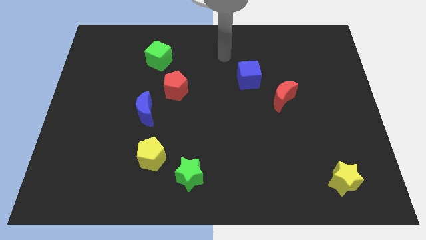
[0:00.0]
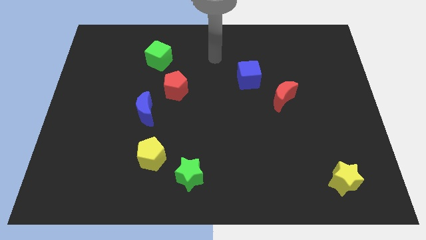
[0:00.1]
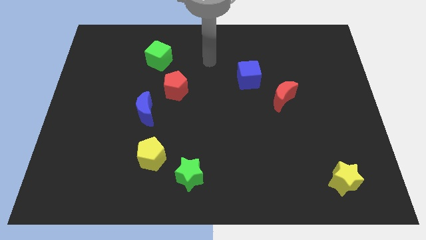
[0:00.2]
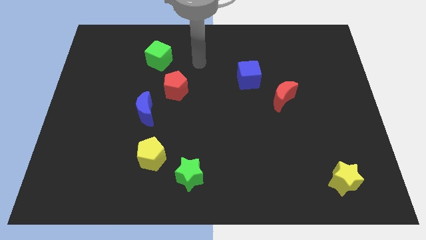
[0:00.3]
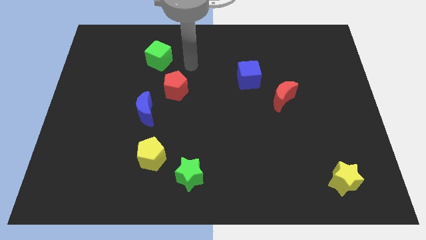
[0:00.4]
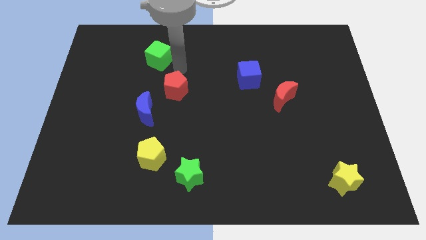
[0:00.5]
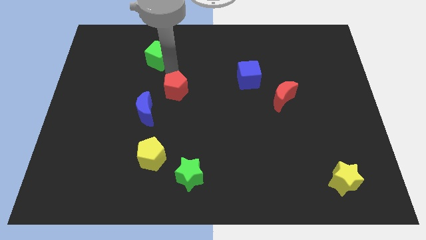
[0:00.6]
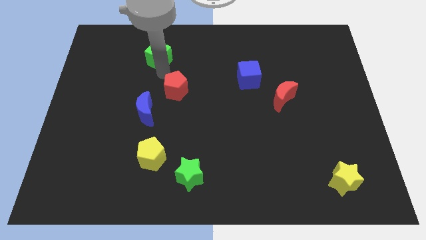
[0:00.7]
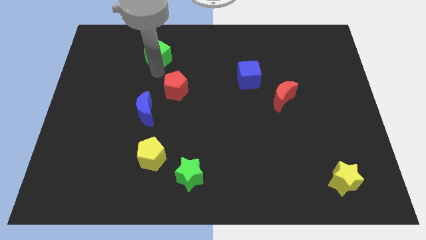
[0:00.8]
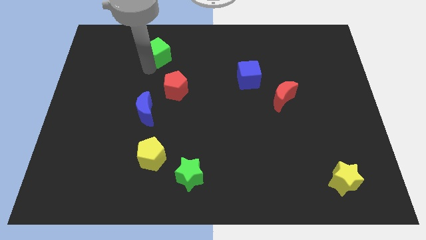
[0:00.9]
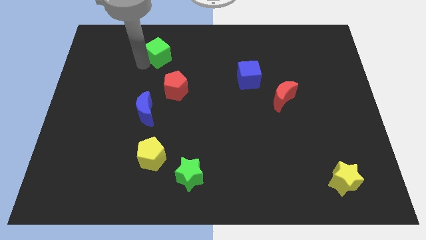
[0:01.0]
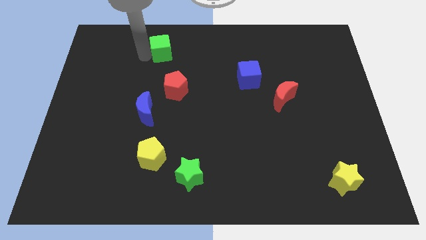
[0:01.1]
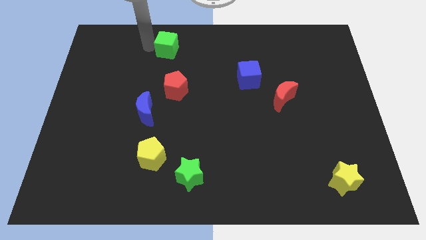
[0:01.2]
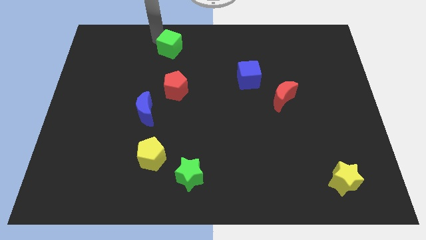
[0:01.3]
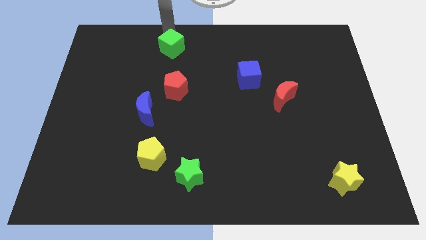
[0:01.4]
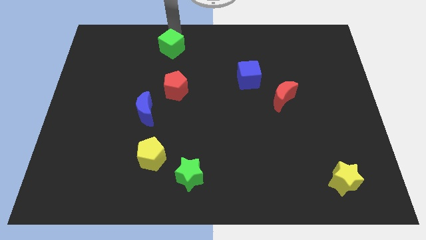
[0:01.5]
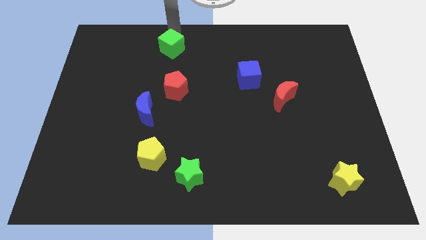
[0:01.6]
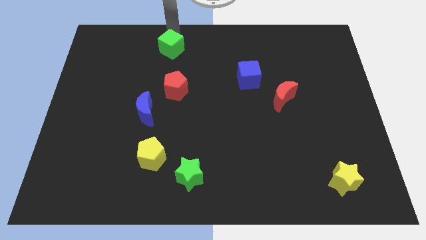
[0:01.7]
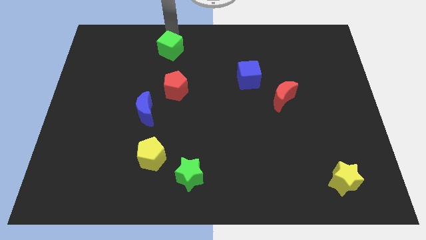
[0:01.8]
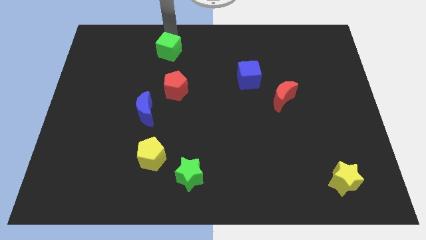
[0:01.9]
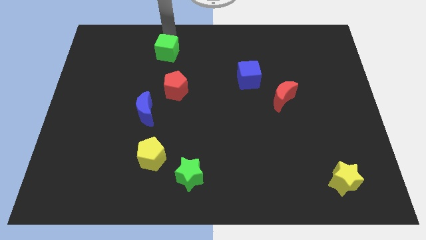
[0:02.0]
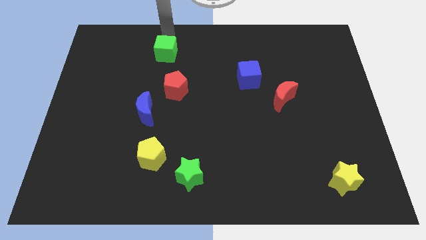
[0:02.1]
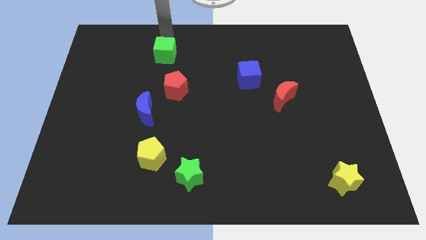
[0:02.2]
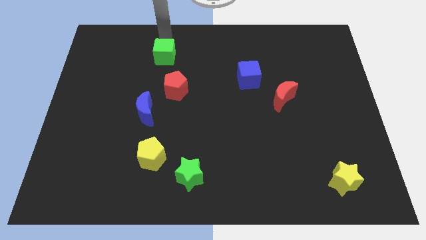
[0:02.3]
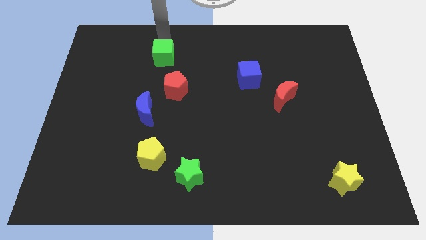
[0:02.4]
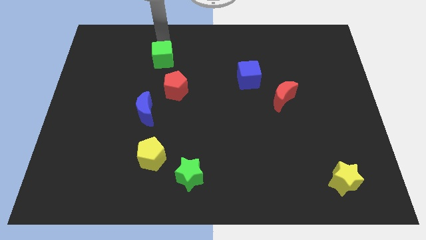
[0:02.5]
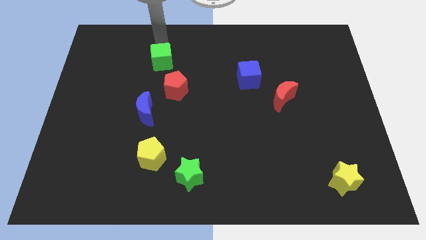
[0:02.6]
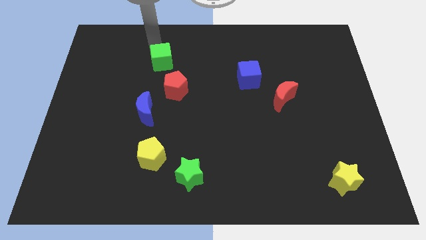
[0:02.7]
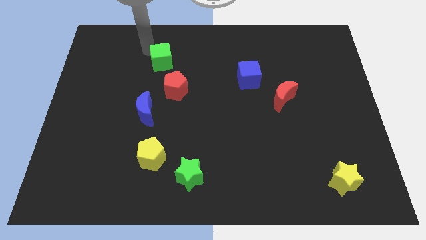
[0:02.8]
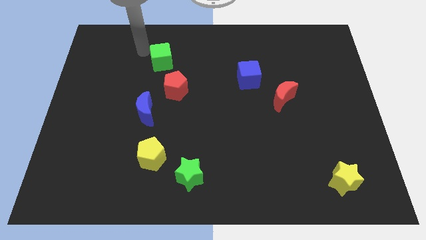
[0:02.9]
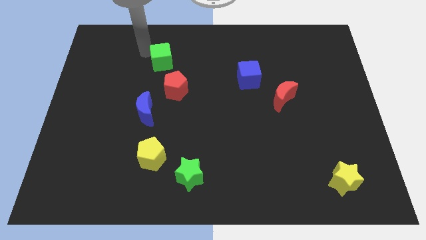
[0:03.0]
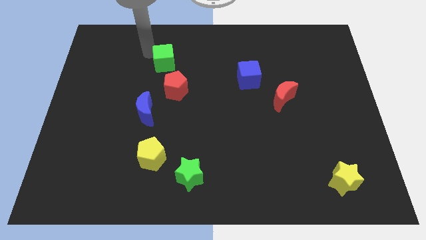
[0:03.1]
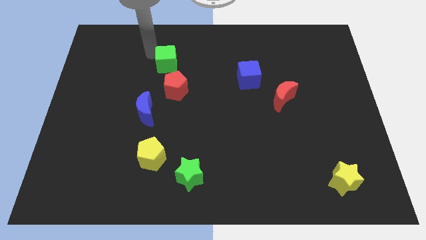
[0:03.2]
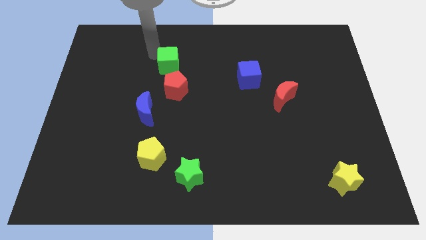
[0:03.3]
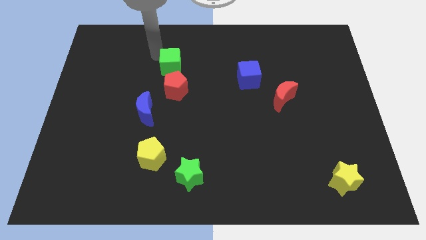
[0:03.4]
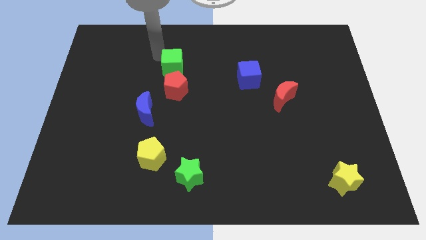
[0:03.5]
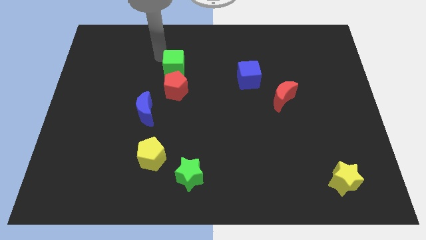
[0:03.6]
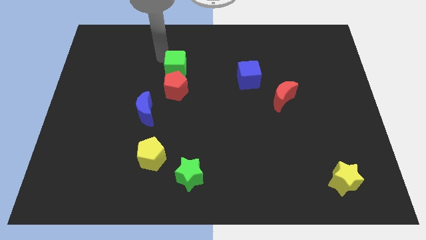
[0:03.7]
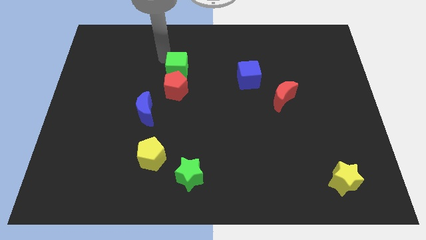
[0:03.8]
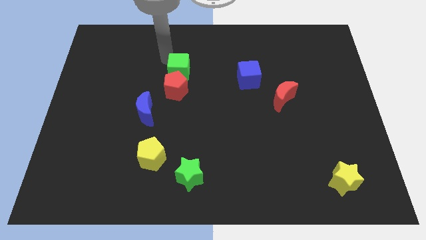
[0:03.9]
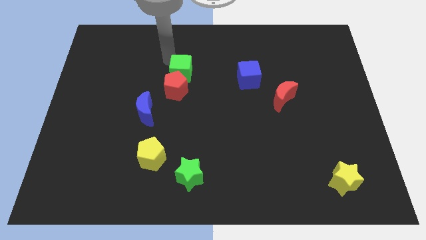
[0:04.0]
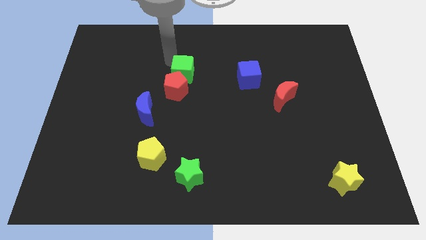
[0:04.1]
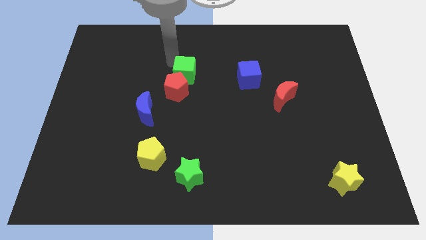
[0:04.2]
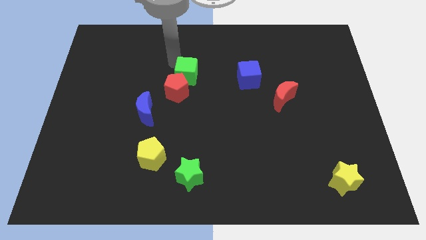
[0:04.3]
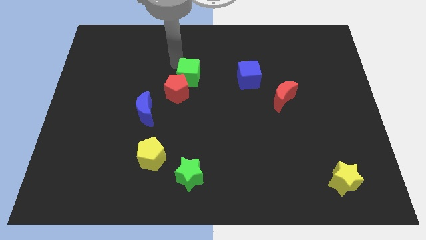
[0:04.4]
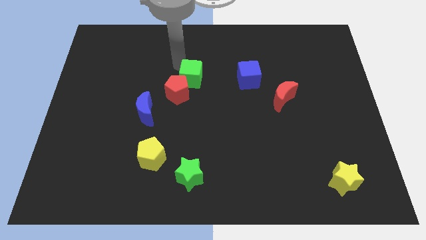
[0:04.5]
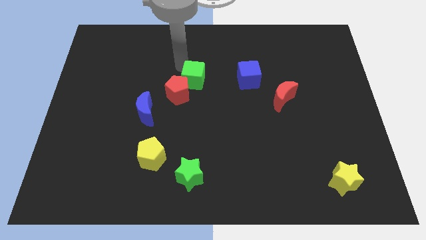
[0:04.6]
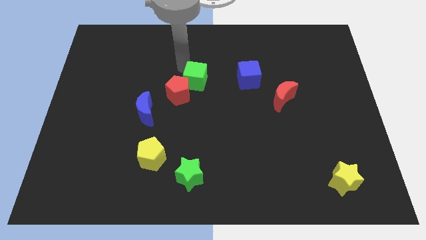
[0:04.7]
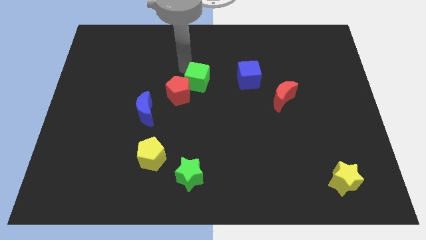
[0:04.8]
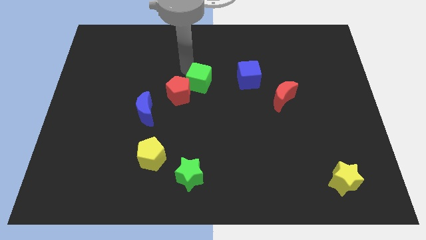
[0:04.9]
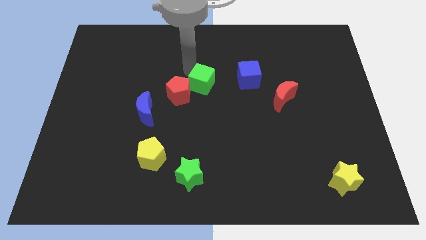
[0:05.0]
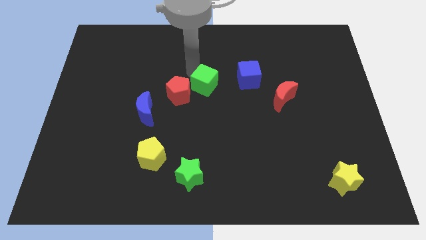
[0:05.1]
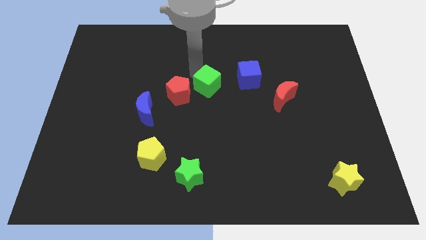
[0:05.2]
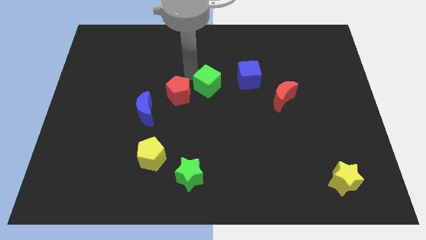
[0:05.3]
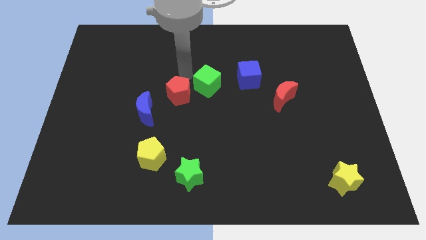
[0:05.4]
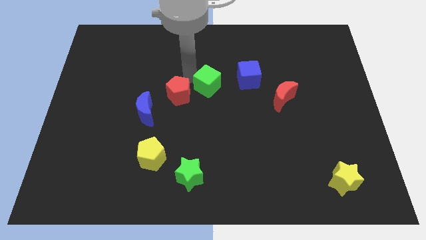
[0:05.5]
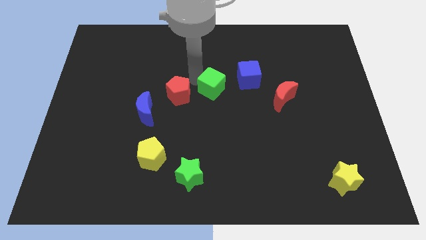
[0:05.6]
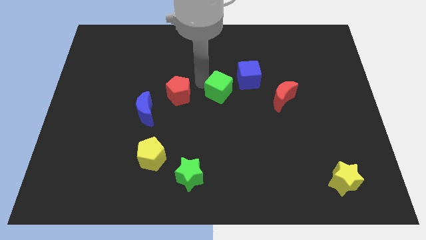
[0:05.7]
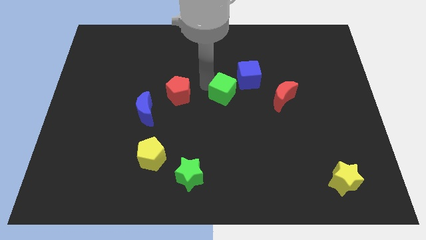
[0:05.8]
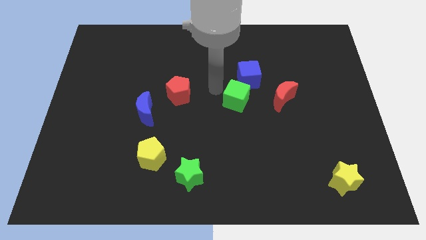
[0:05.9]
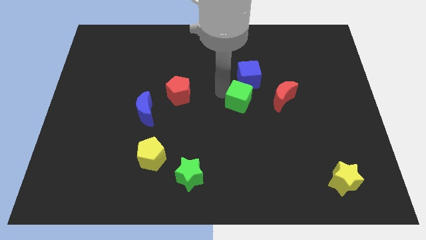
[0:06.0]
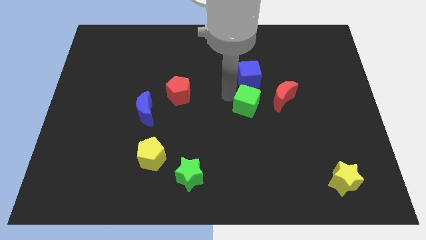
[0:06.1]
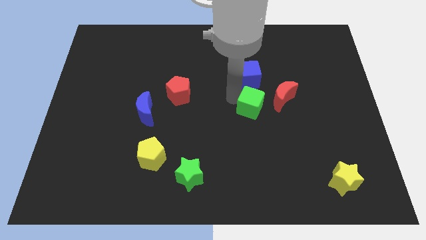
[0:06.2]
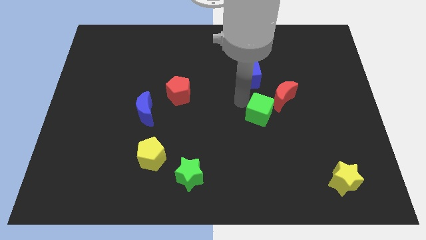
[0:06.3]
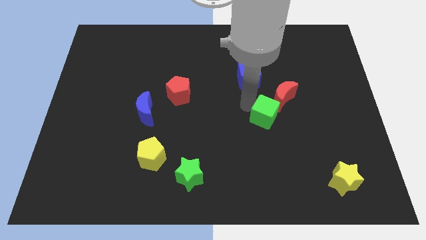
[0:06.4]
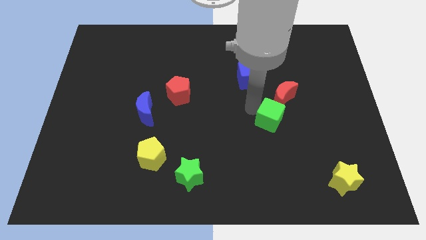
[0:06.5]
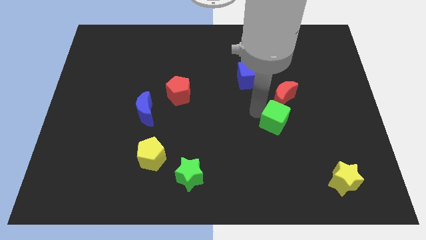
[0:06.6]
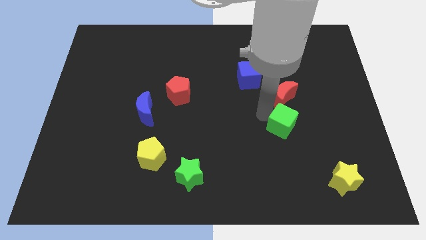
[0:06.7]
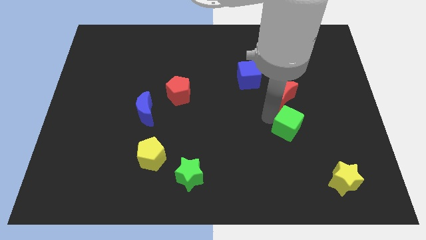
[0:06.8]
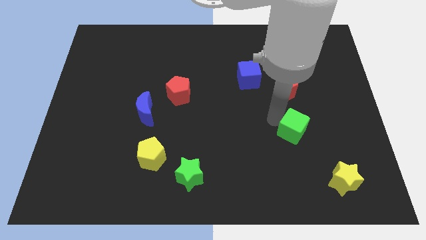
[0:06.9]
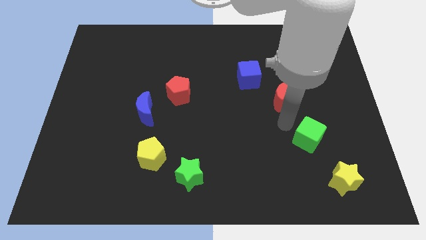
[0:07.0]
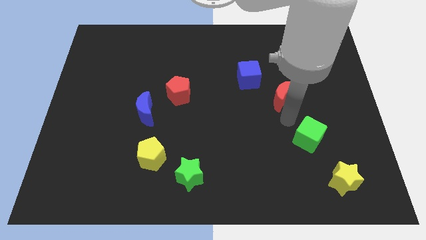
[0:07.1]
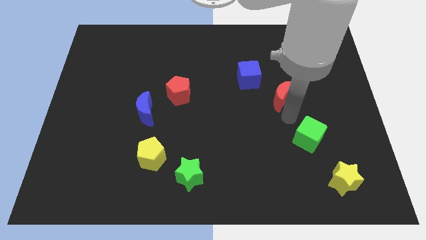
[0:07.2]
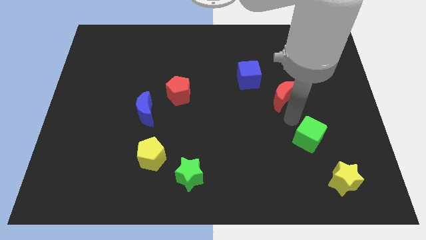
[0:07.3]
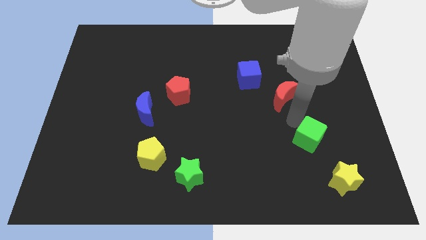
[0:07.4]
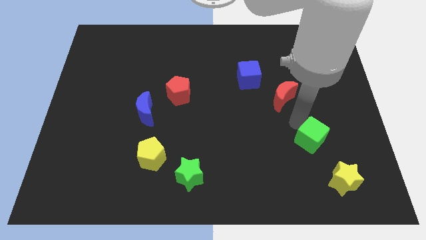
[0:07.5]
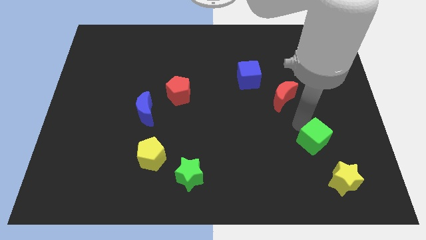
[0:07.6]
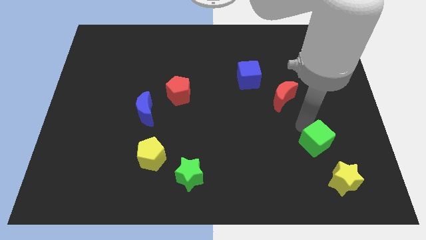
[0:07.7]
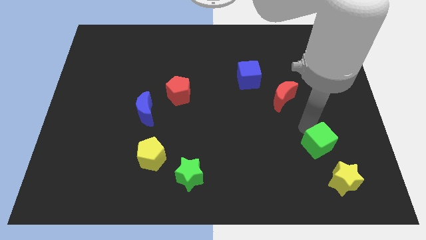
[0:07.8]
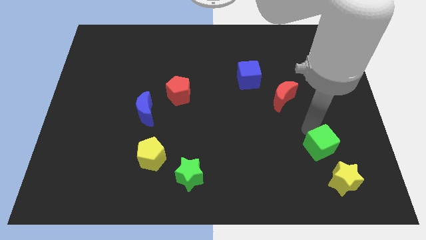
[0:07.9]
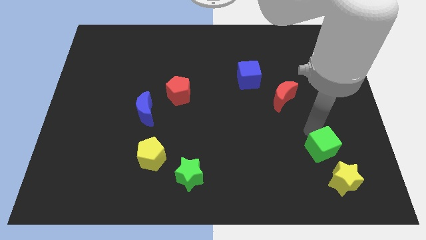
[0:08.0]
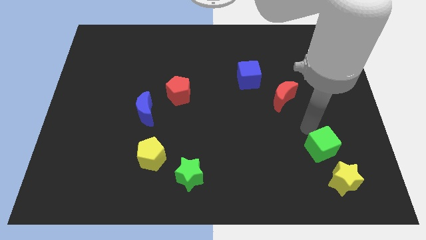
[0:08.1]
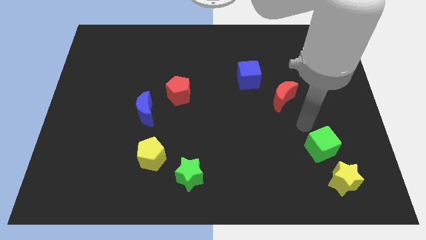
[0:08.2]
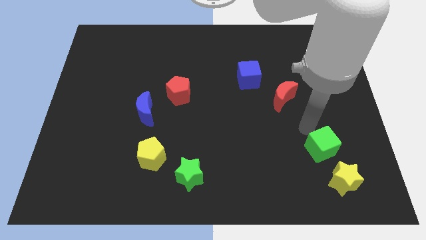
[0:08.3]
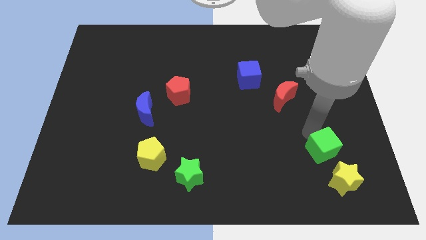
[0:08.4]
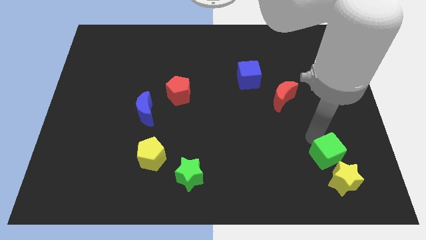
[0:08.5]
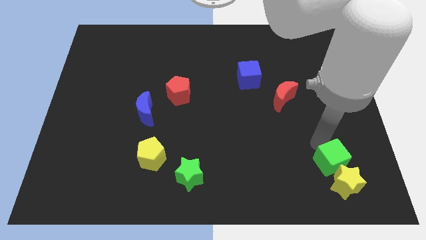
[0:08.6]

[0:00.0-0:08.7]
move the green cube towards the yellow star
